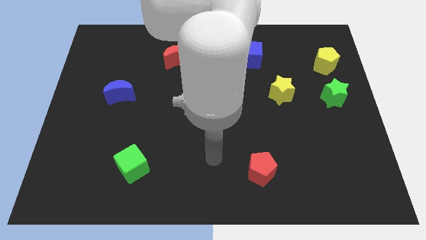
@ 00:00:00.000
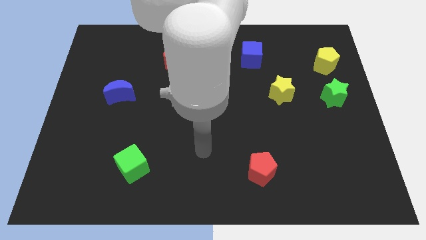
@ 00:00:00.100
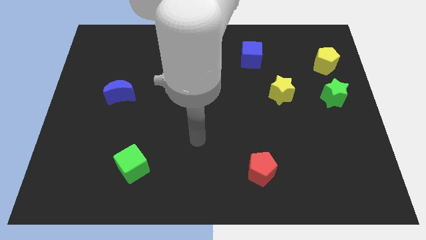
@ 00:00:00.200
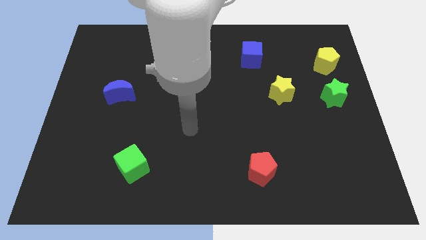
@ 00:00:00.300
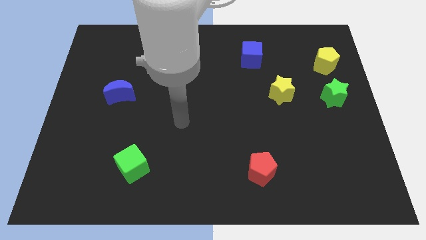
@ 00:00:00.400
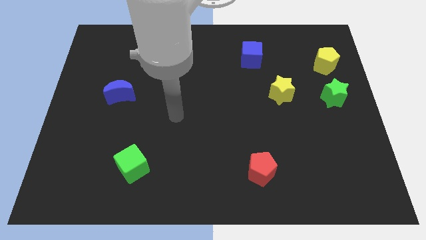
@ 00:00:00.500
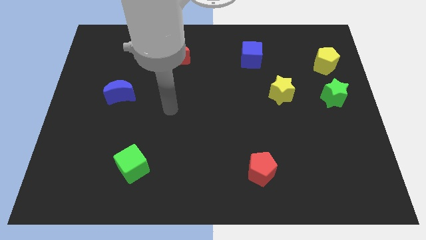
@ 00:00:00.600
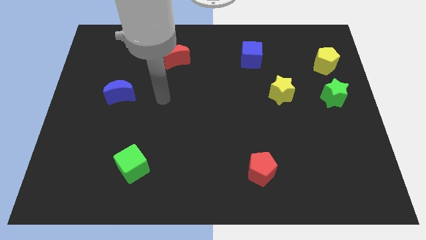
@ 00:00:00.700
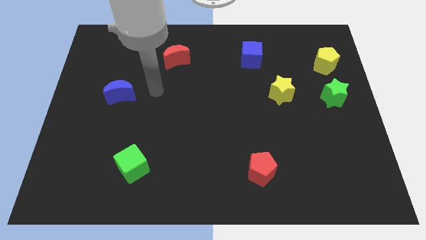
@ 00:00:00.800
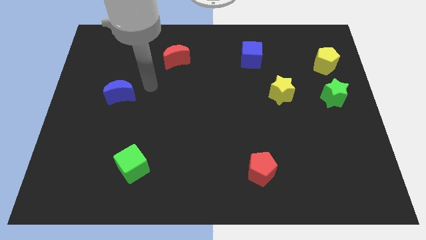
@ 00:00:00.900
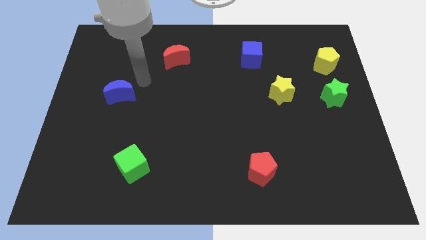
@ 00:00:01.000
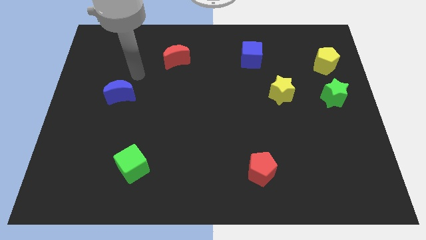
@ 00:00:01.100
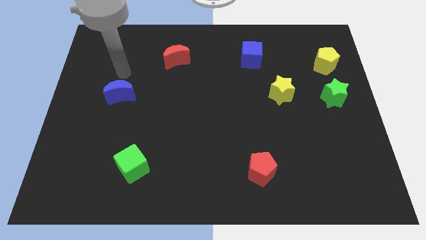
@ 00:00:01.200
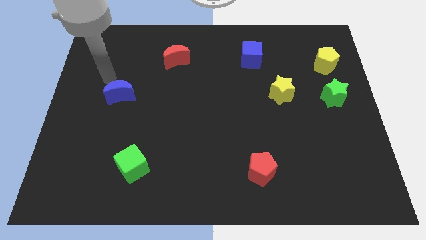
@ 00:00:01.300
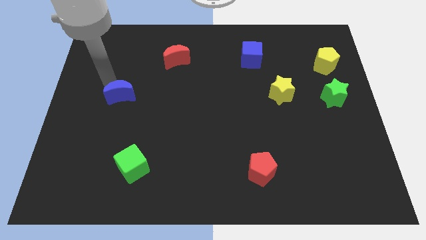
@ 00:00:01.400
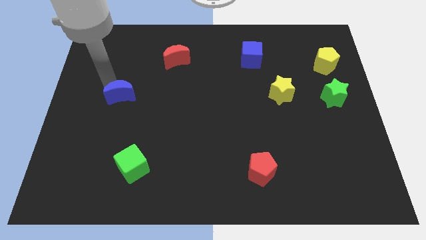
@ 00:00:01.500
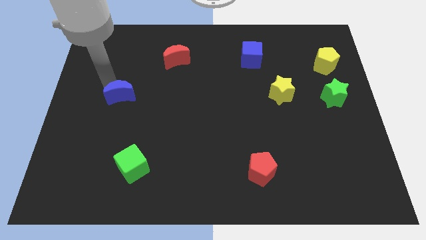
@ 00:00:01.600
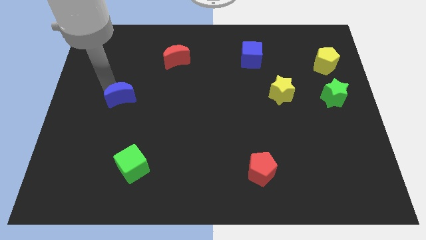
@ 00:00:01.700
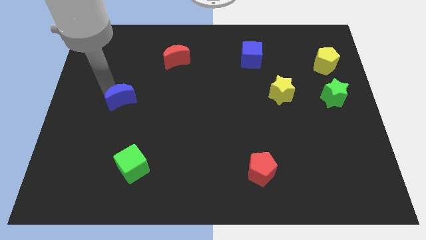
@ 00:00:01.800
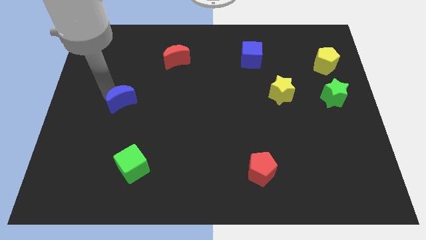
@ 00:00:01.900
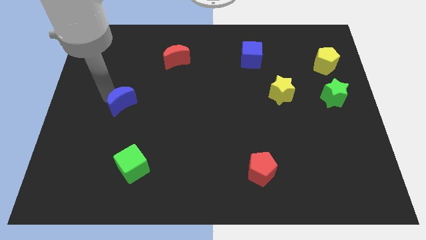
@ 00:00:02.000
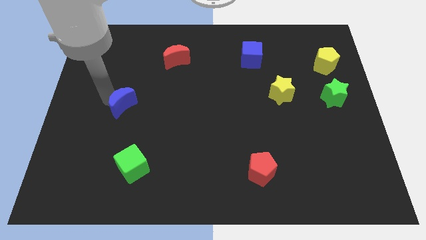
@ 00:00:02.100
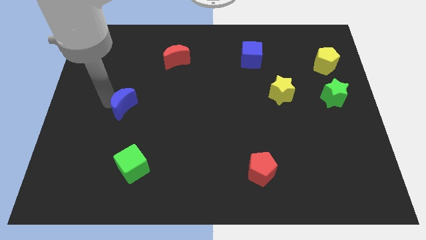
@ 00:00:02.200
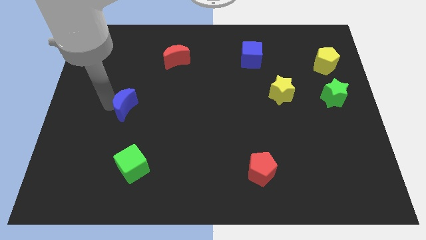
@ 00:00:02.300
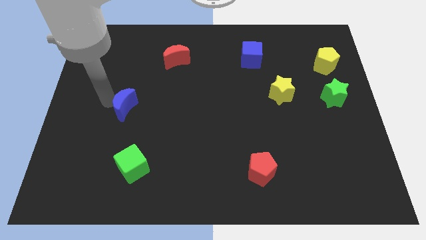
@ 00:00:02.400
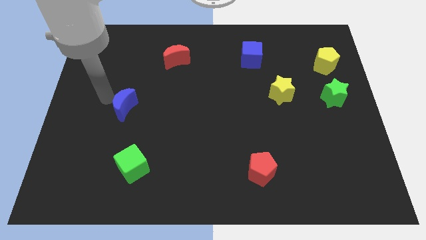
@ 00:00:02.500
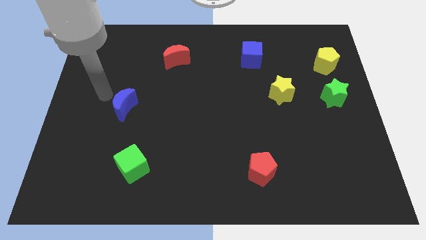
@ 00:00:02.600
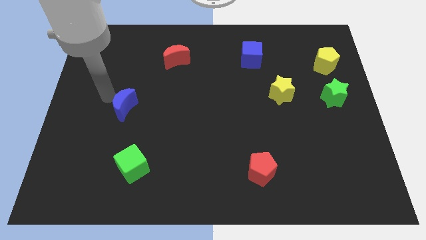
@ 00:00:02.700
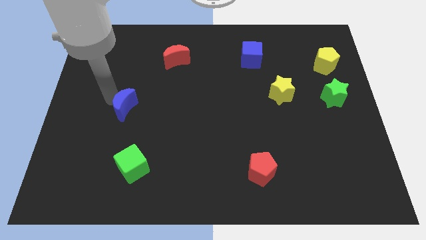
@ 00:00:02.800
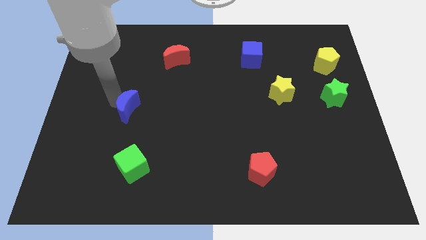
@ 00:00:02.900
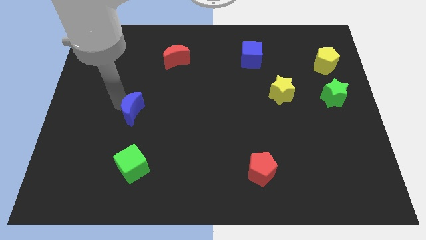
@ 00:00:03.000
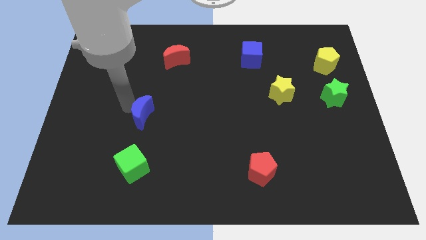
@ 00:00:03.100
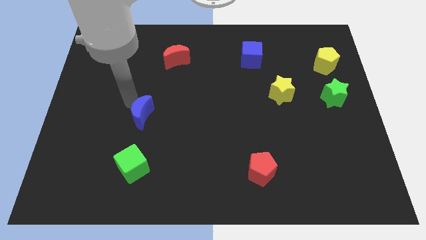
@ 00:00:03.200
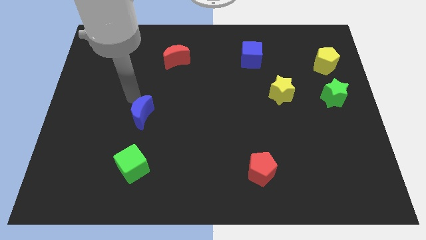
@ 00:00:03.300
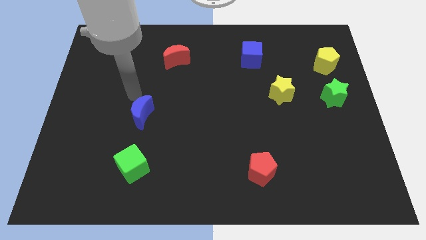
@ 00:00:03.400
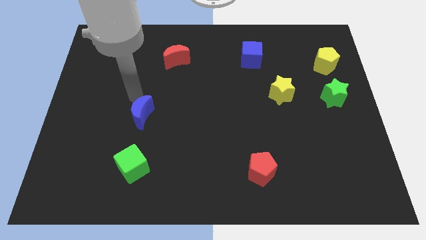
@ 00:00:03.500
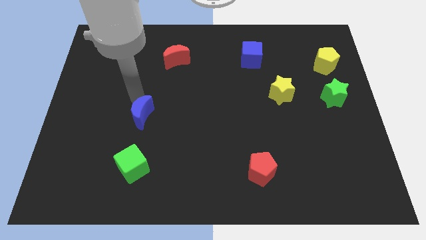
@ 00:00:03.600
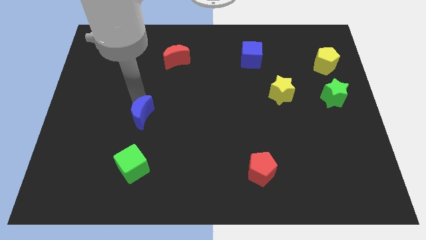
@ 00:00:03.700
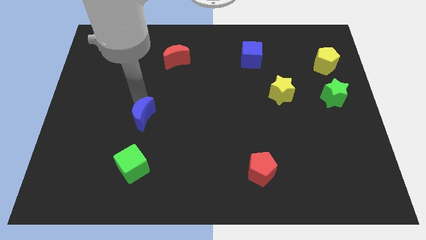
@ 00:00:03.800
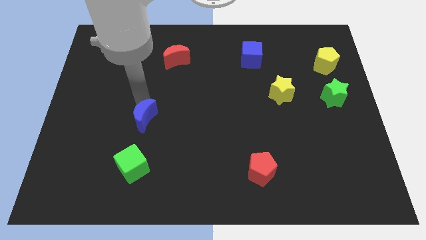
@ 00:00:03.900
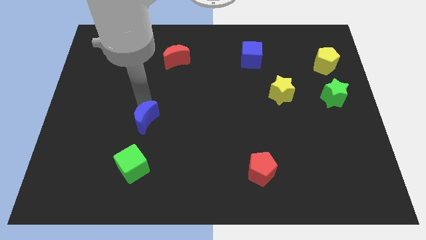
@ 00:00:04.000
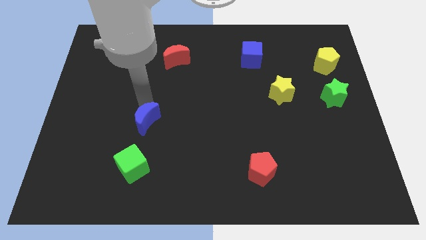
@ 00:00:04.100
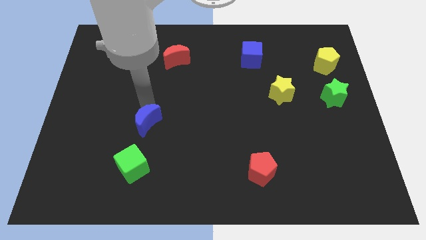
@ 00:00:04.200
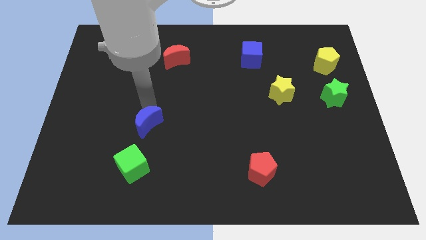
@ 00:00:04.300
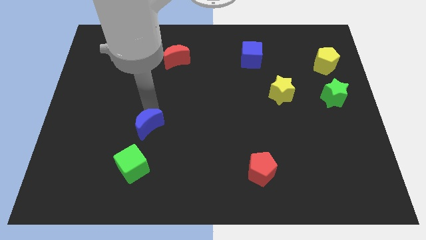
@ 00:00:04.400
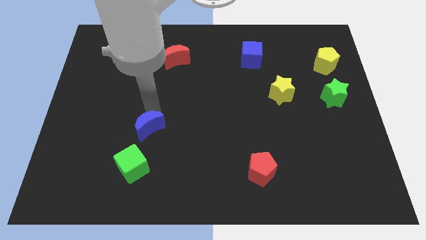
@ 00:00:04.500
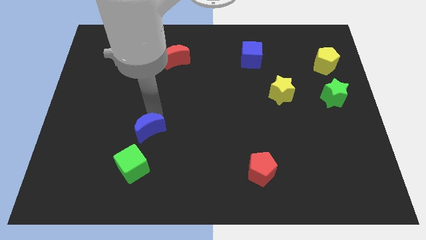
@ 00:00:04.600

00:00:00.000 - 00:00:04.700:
put the blue moon diagonally up and to the right of the green cube

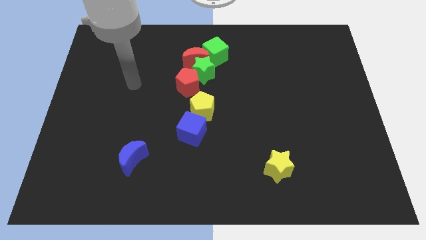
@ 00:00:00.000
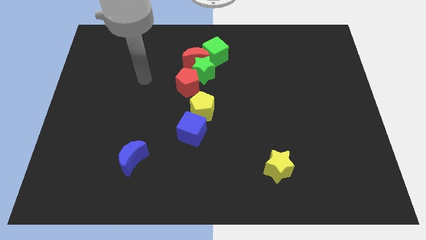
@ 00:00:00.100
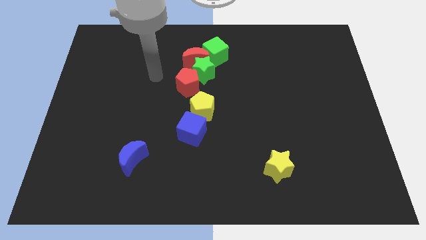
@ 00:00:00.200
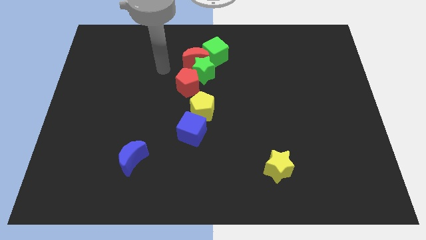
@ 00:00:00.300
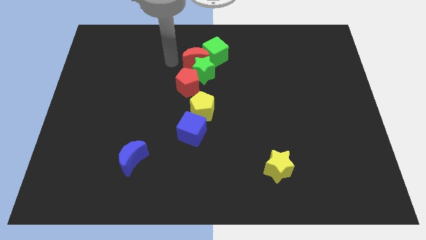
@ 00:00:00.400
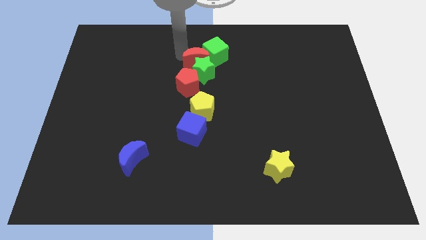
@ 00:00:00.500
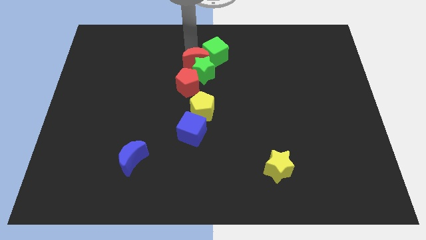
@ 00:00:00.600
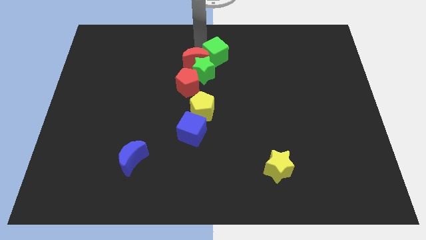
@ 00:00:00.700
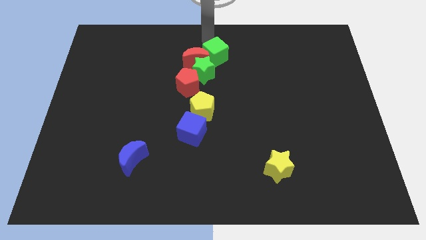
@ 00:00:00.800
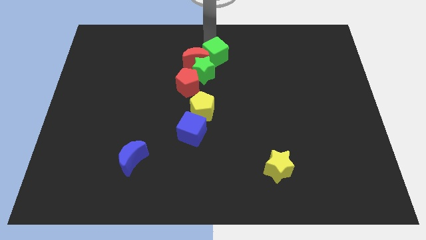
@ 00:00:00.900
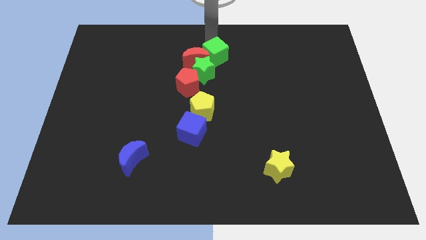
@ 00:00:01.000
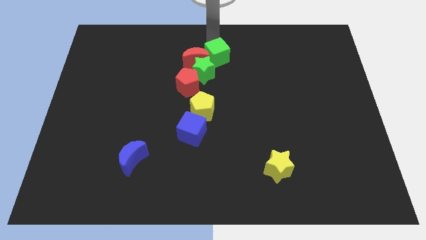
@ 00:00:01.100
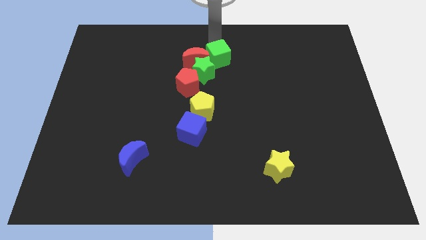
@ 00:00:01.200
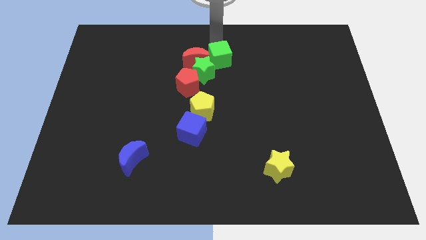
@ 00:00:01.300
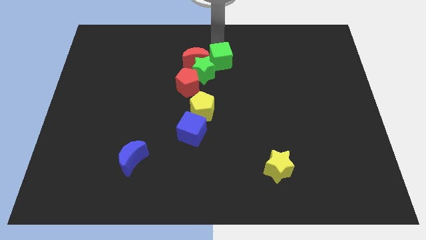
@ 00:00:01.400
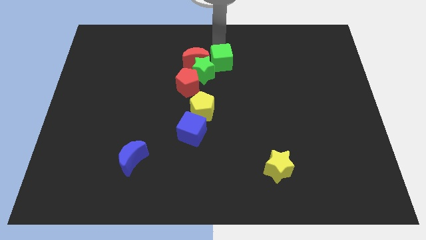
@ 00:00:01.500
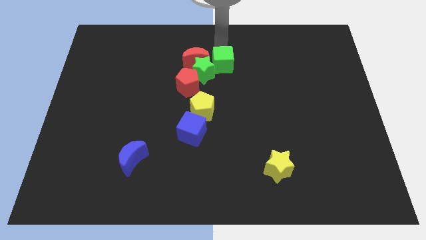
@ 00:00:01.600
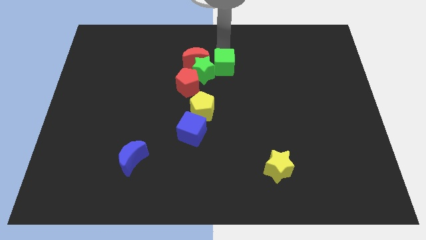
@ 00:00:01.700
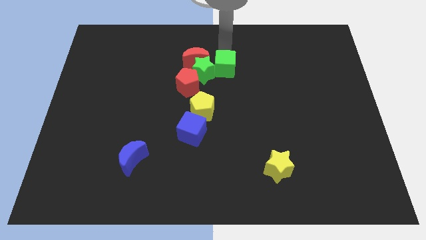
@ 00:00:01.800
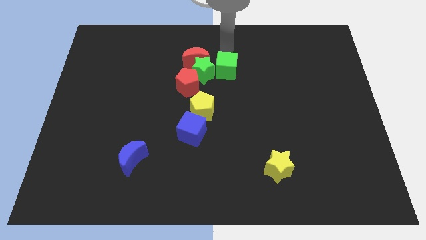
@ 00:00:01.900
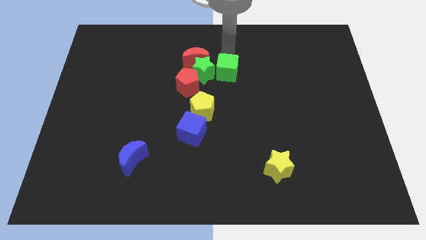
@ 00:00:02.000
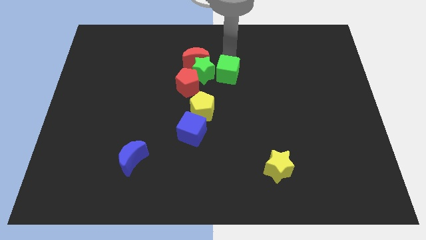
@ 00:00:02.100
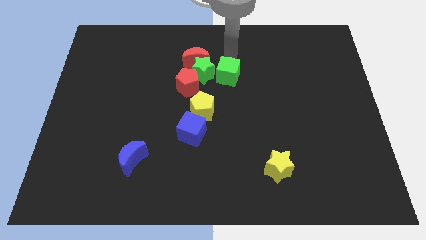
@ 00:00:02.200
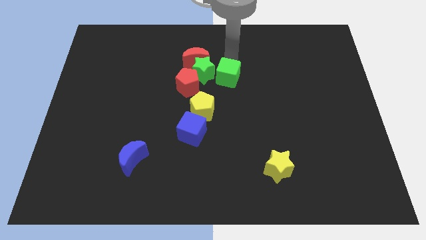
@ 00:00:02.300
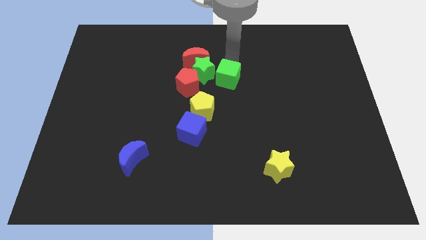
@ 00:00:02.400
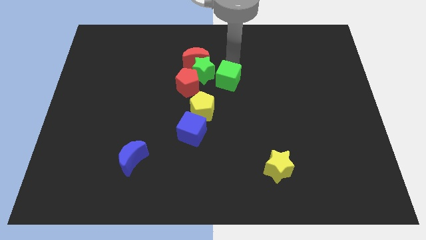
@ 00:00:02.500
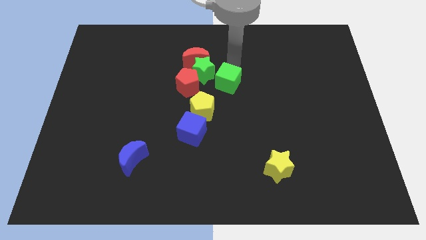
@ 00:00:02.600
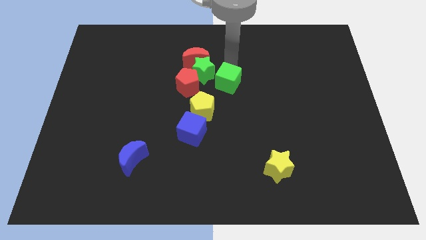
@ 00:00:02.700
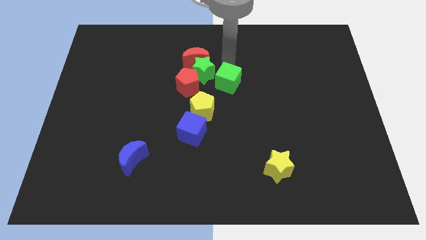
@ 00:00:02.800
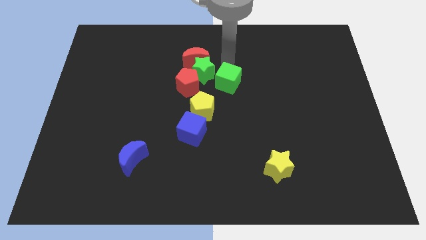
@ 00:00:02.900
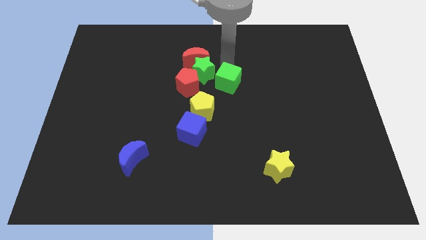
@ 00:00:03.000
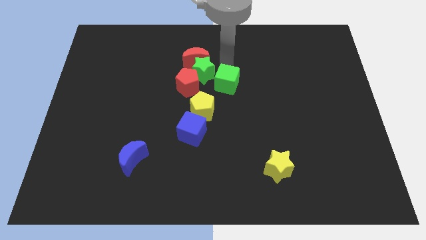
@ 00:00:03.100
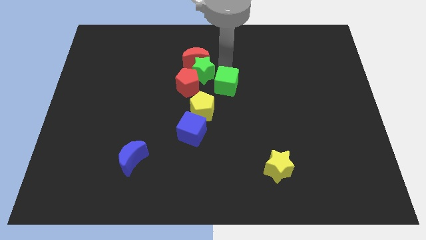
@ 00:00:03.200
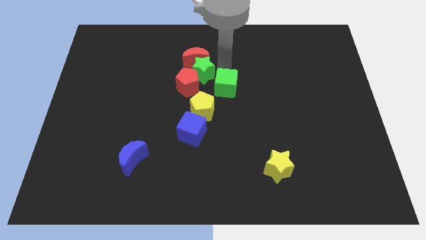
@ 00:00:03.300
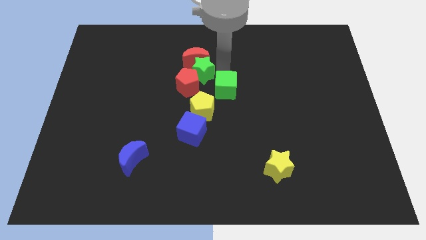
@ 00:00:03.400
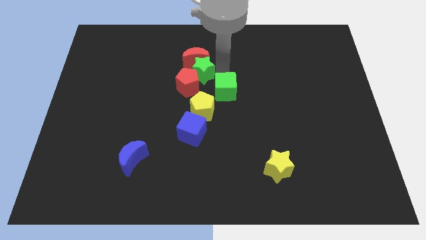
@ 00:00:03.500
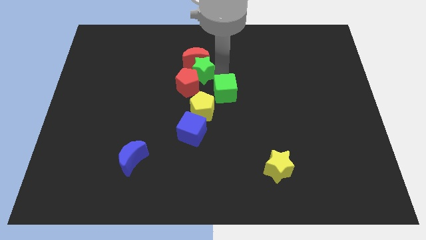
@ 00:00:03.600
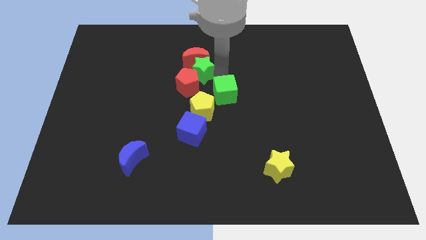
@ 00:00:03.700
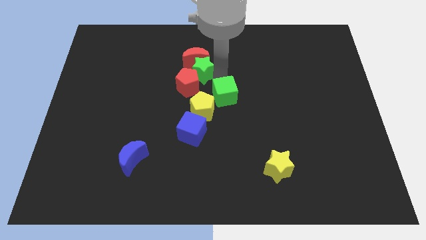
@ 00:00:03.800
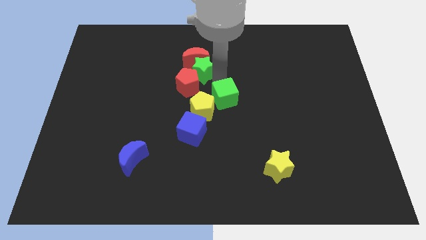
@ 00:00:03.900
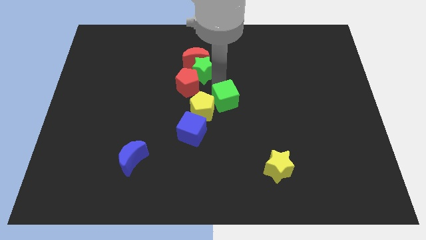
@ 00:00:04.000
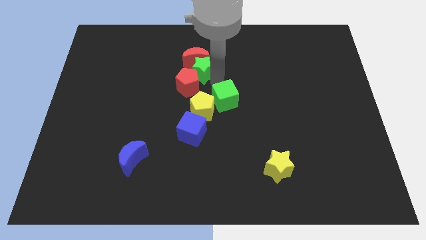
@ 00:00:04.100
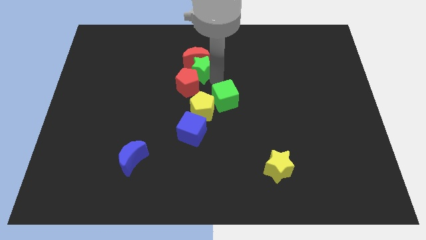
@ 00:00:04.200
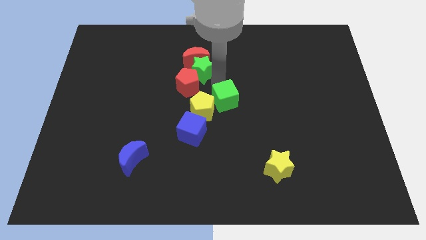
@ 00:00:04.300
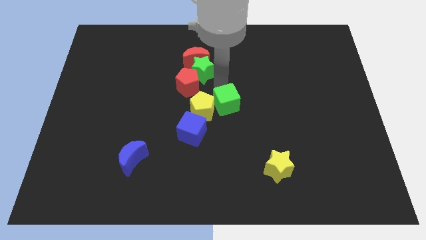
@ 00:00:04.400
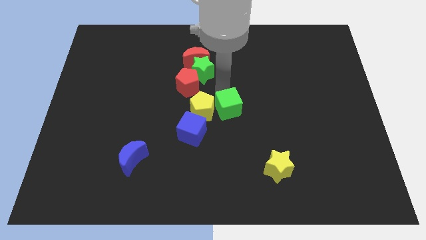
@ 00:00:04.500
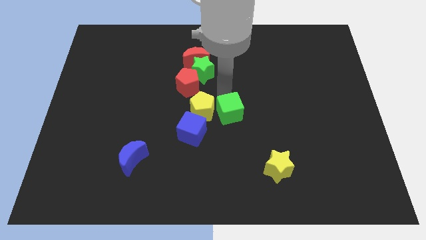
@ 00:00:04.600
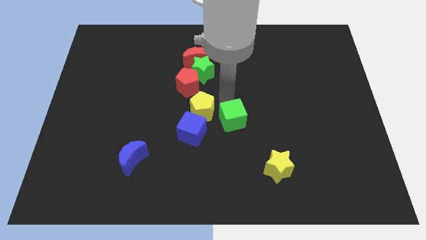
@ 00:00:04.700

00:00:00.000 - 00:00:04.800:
put the green cube to the right side of the blue cube
